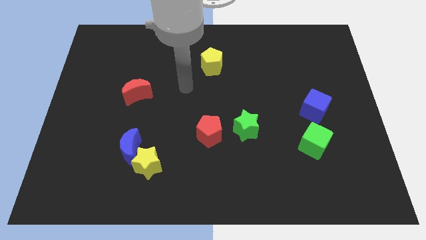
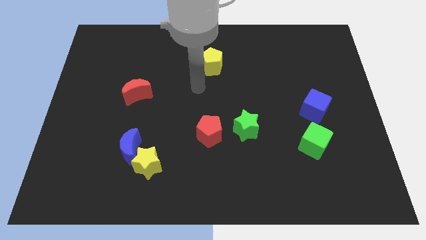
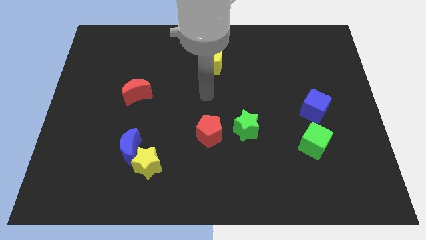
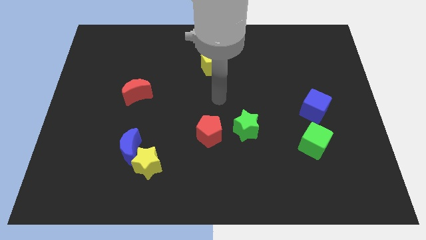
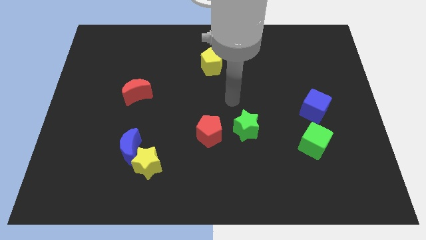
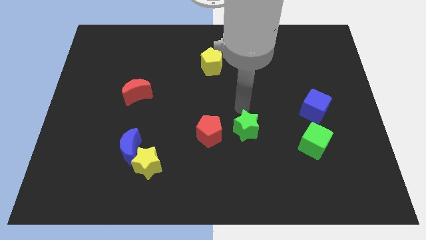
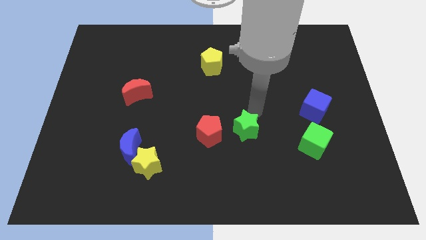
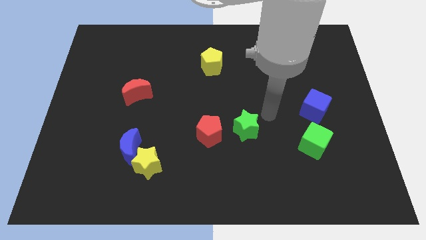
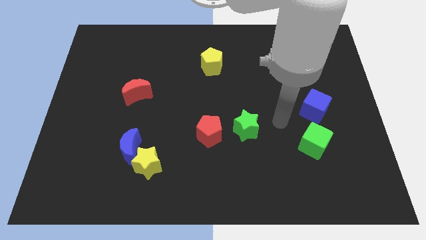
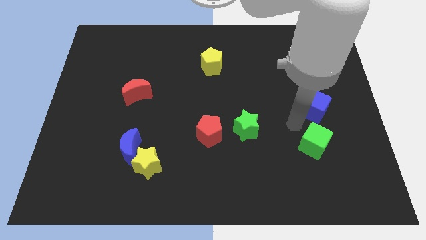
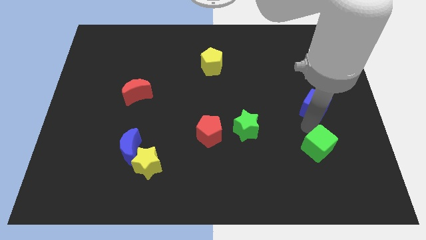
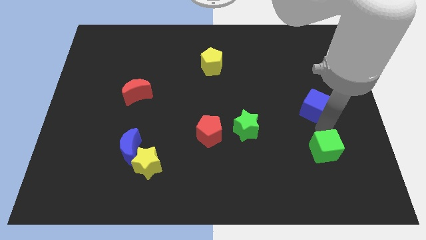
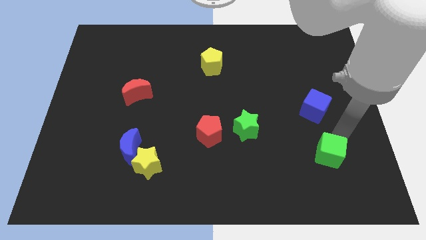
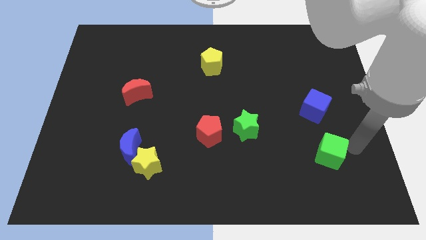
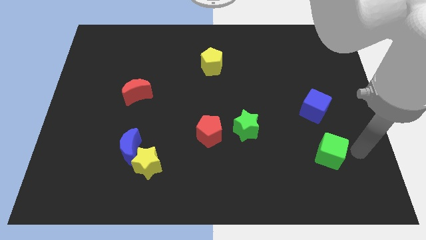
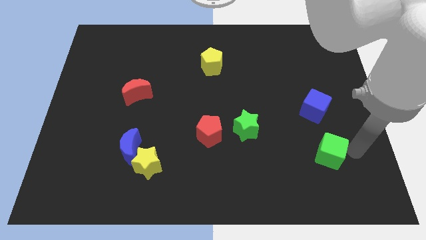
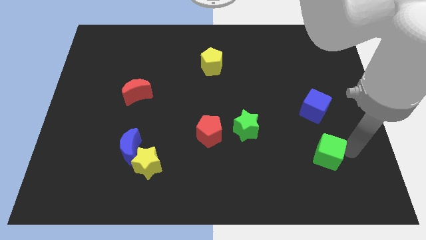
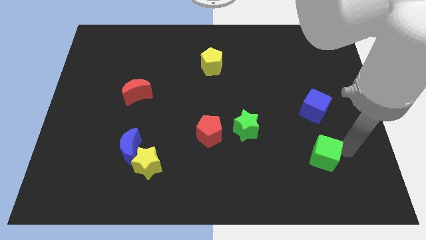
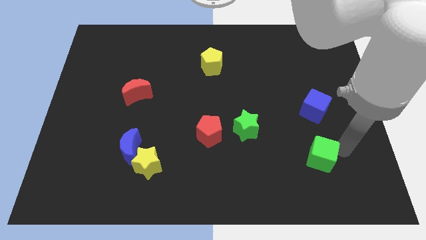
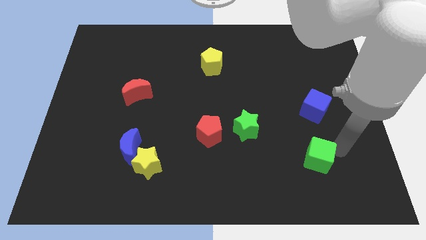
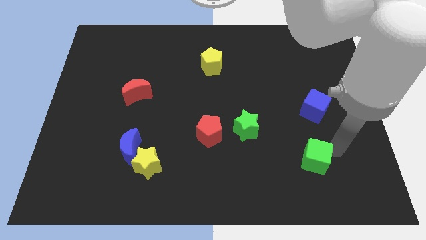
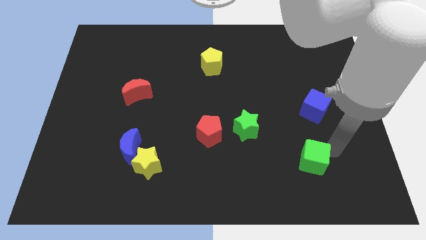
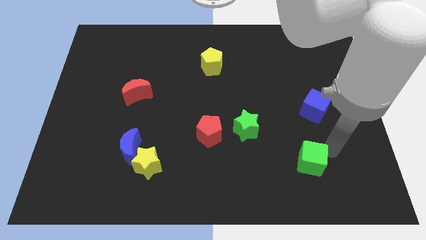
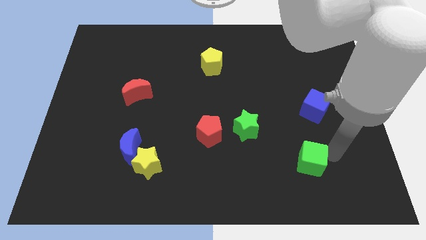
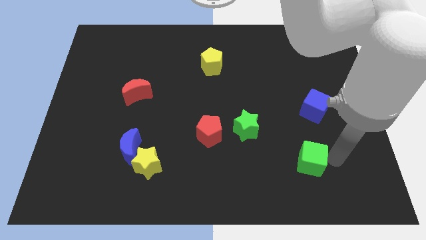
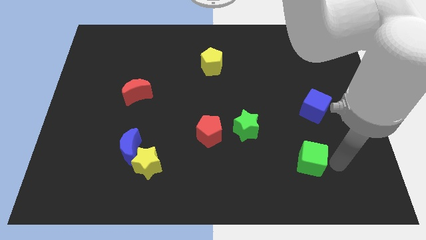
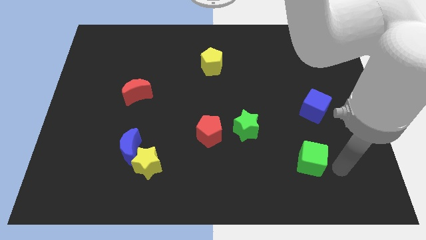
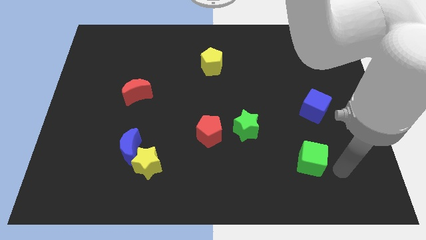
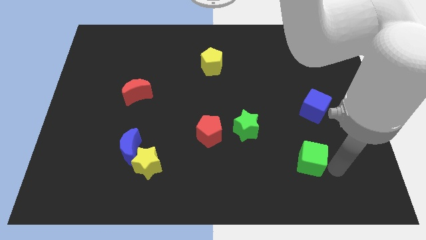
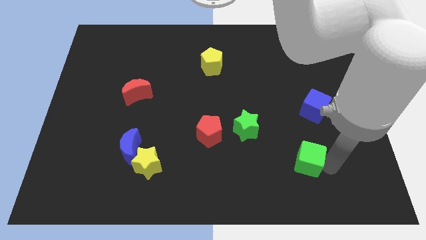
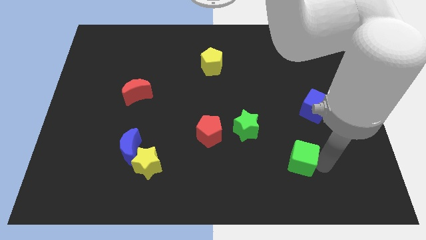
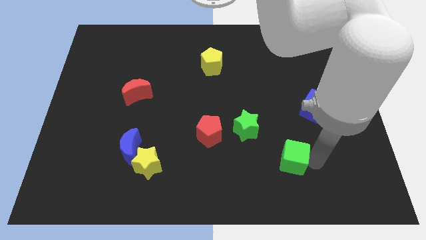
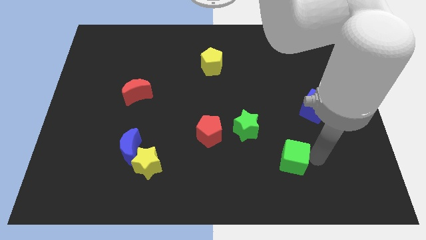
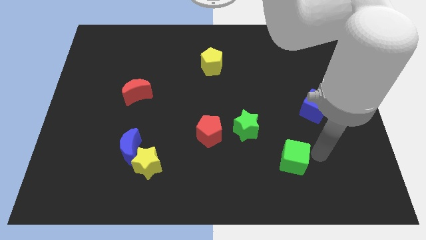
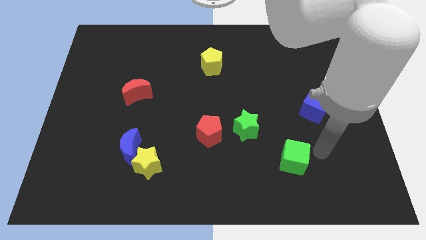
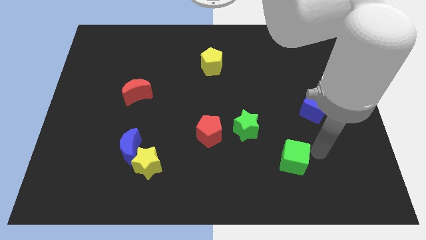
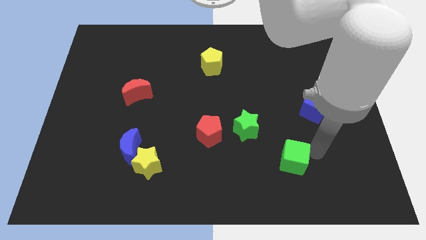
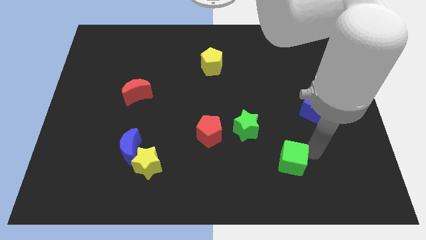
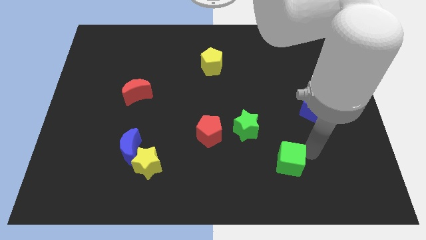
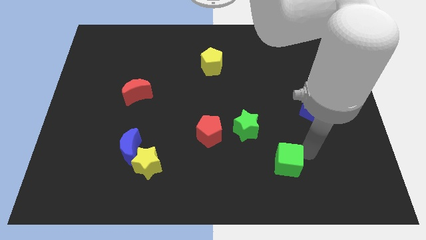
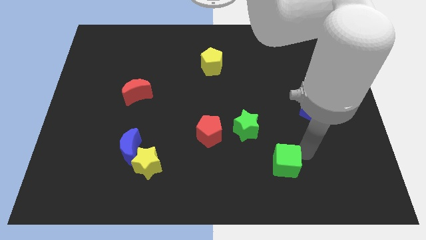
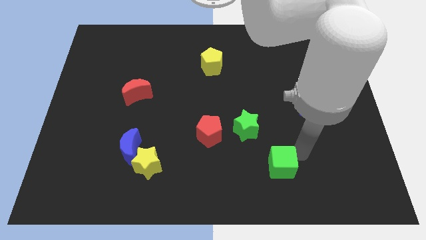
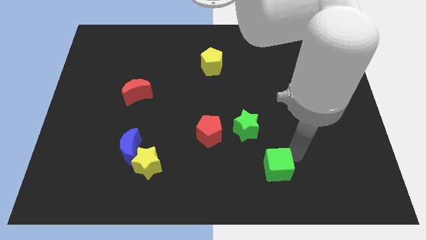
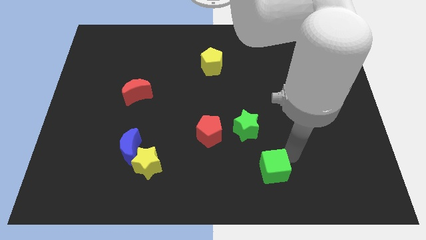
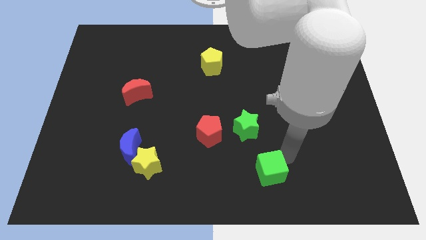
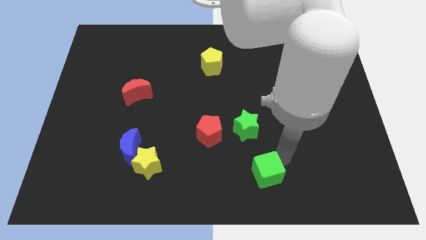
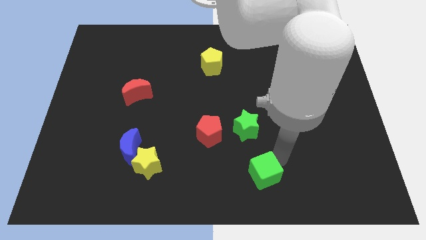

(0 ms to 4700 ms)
slide the green cube to the bottom side

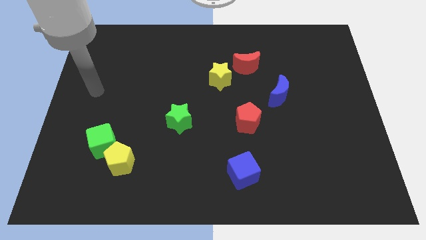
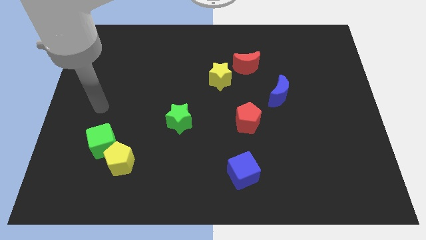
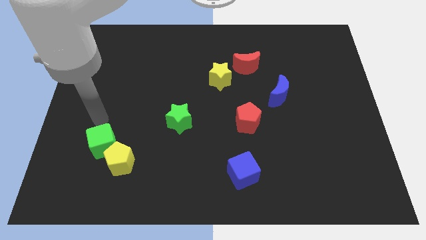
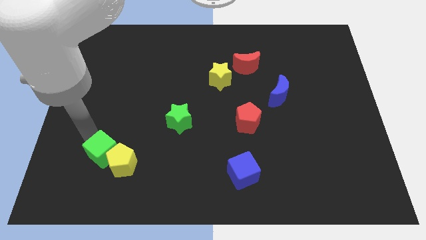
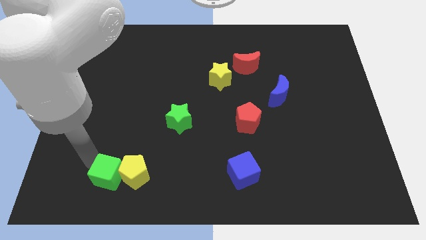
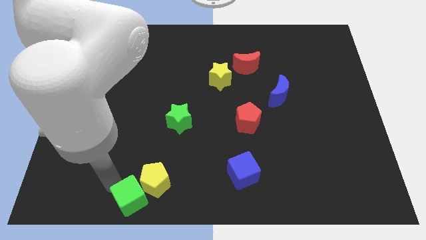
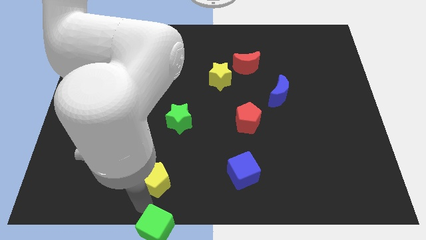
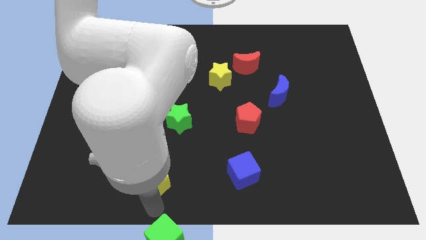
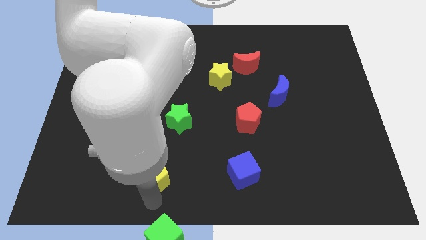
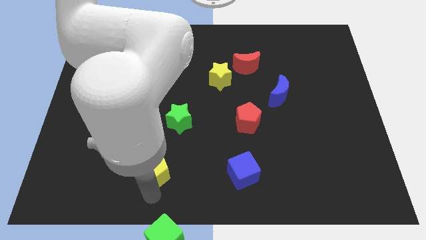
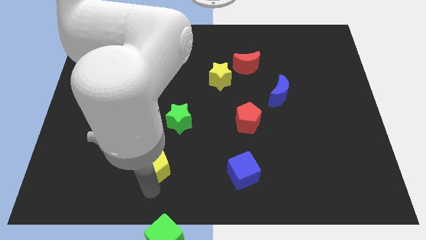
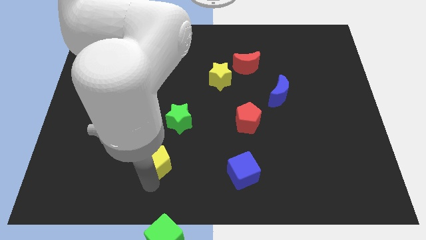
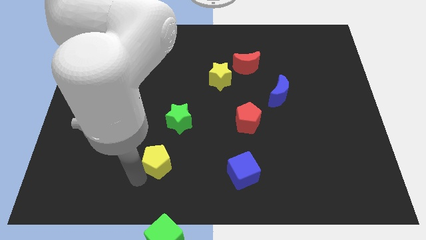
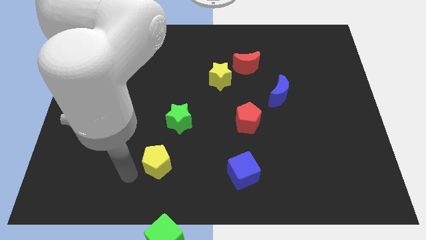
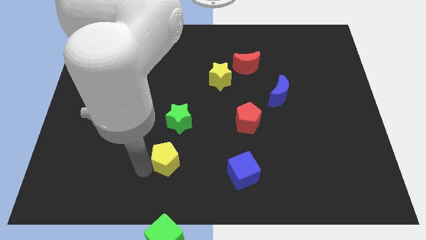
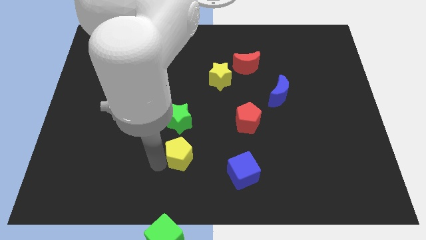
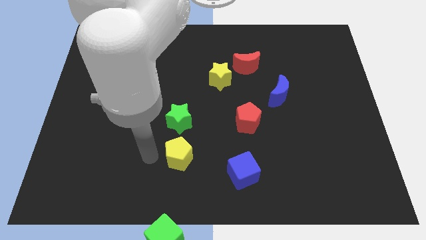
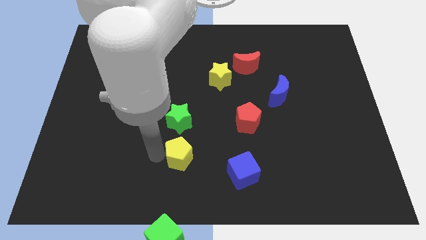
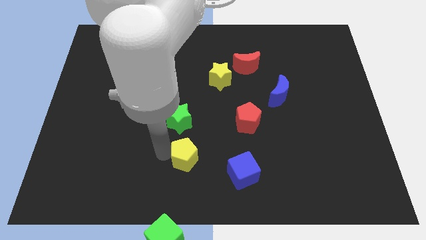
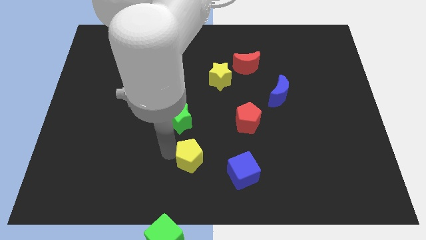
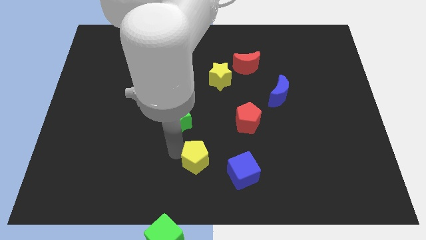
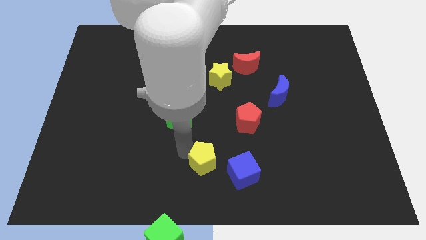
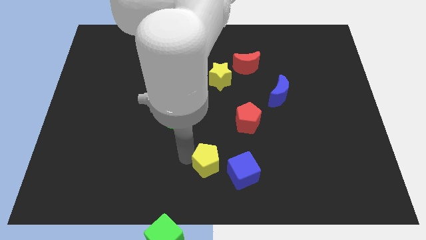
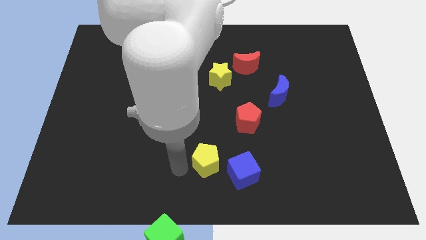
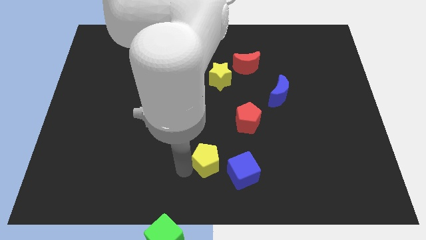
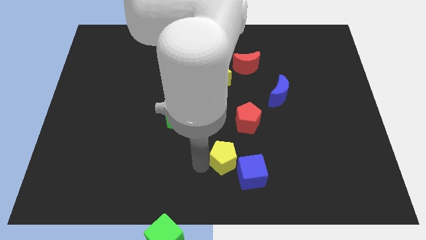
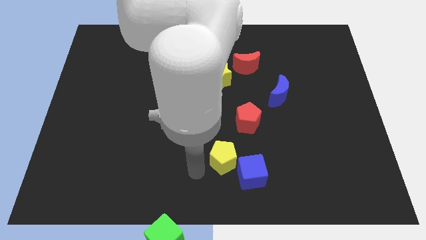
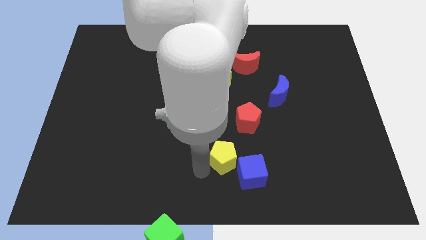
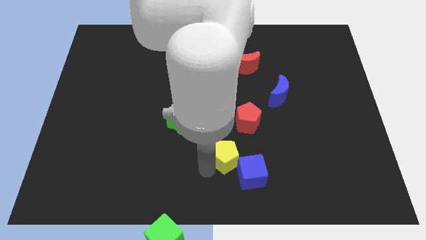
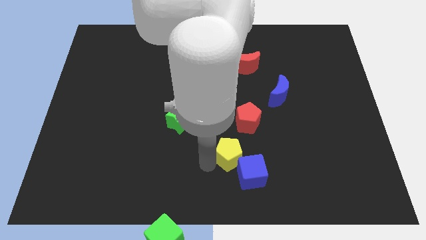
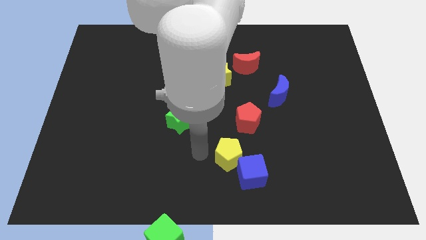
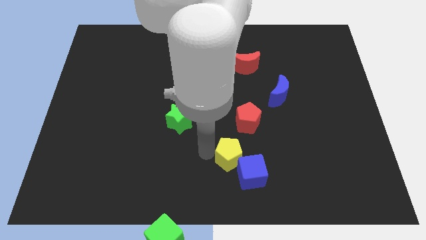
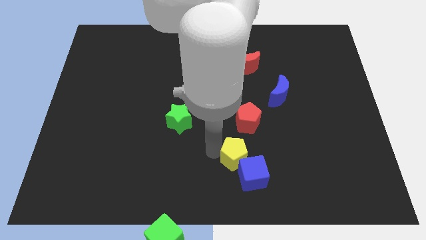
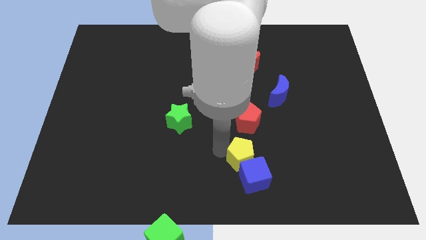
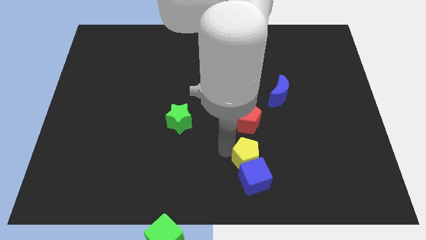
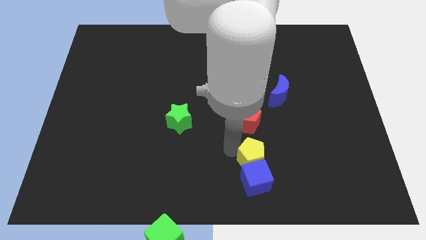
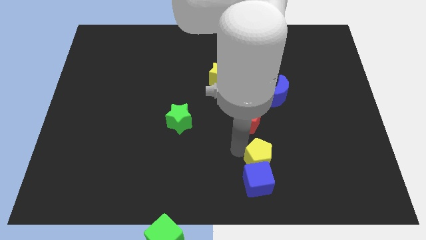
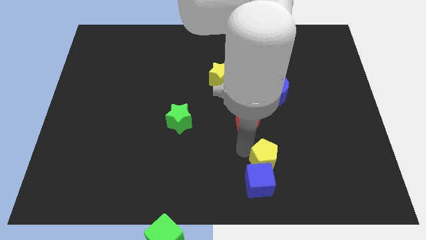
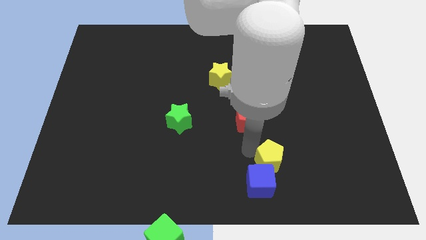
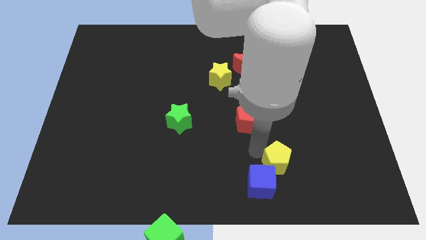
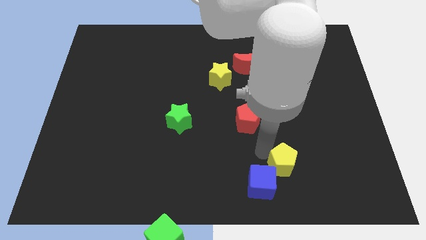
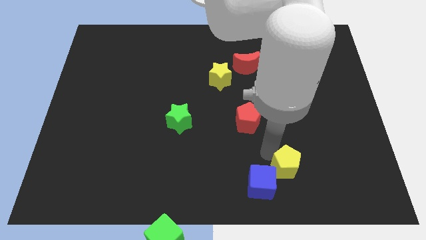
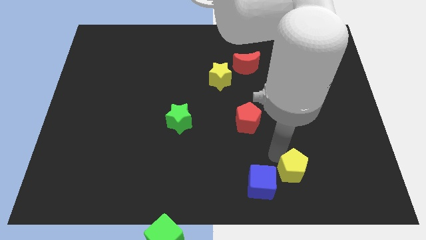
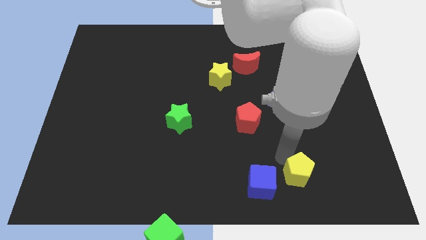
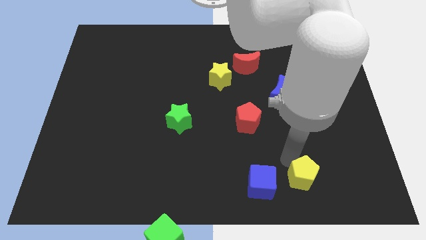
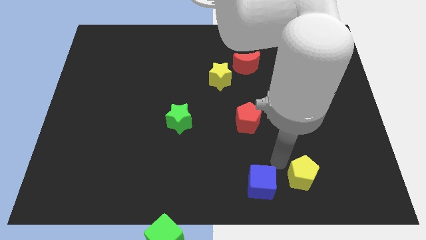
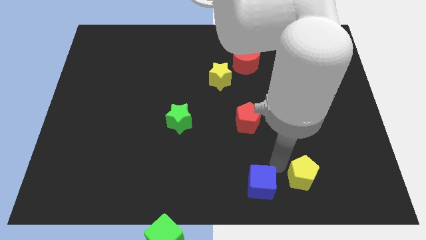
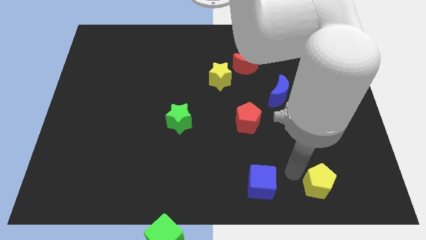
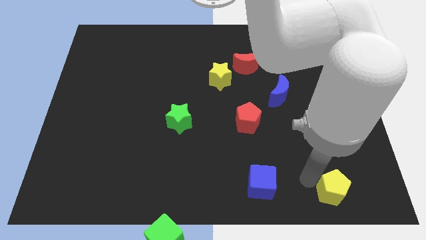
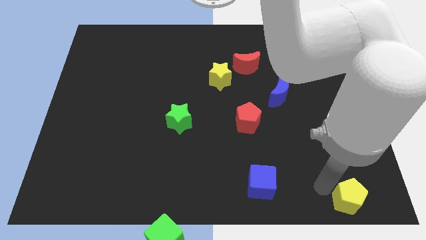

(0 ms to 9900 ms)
push the yellow pentagon to the bottom right of the board
